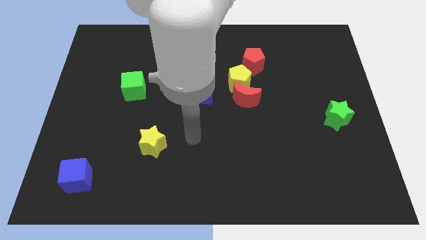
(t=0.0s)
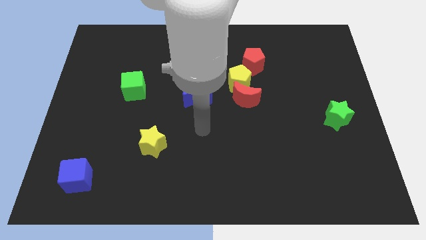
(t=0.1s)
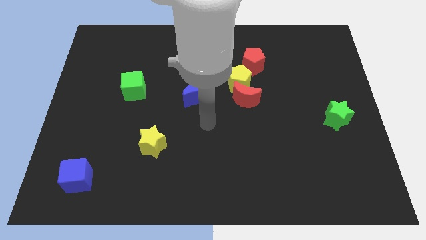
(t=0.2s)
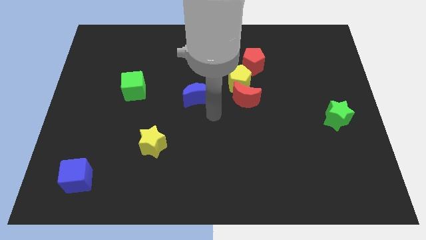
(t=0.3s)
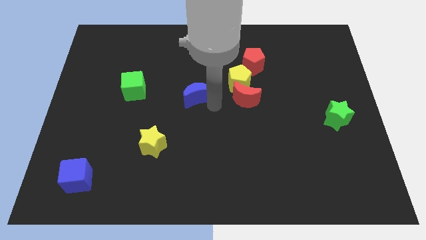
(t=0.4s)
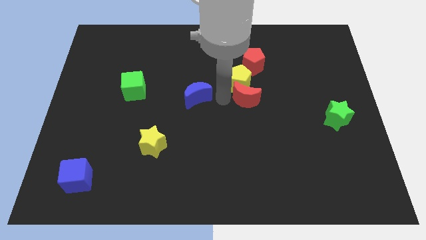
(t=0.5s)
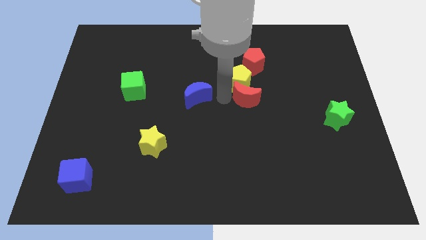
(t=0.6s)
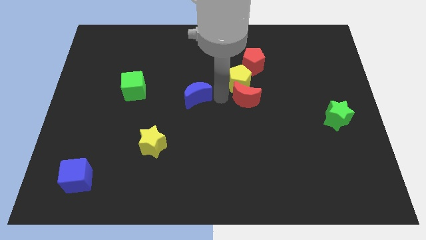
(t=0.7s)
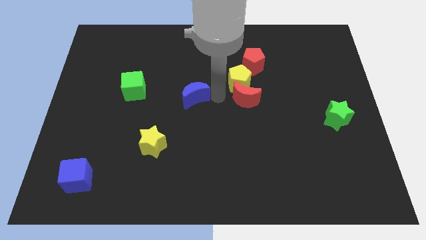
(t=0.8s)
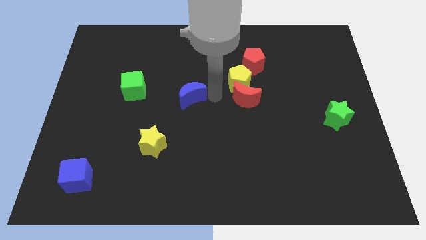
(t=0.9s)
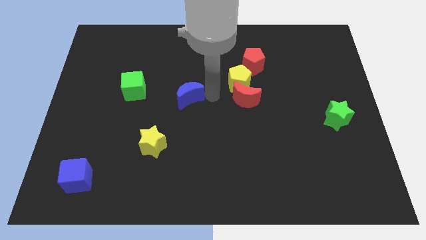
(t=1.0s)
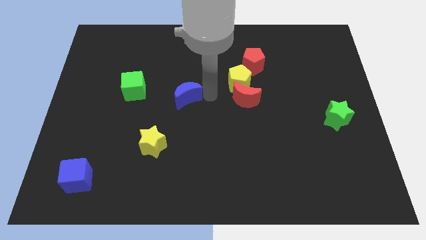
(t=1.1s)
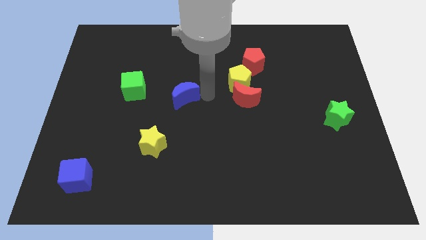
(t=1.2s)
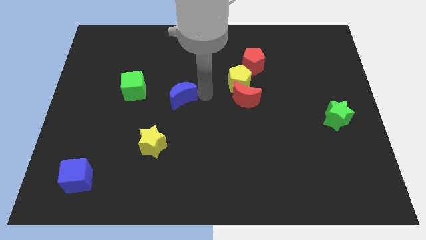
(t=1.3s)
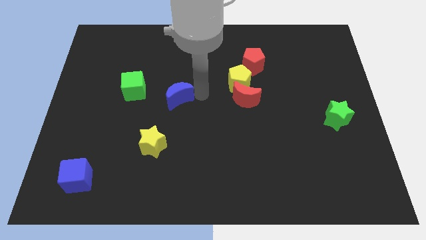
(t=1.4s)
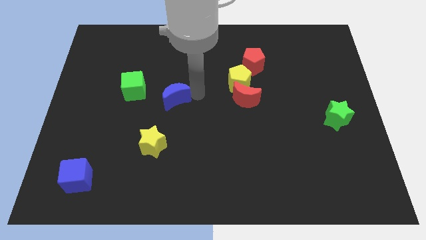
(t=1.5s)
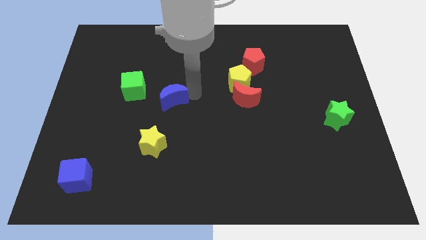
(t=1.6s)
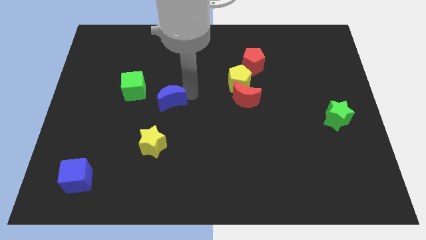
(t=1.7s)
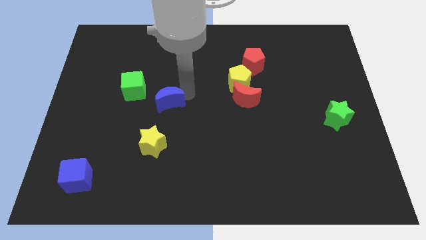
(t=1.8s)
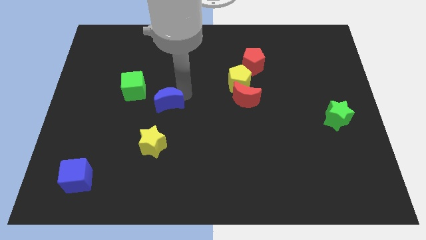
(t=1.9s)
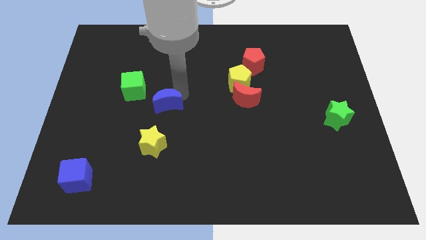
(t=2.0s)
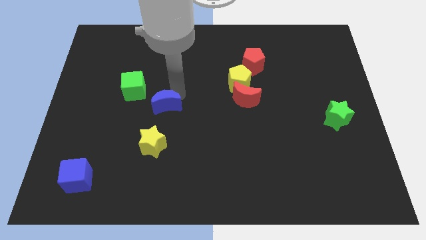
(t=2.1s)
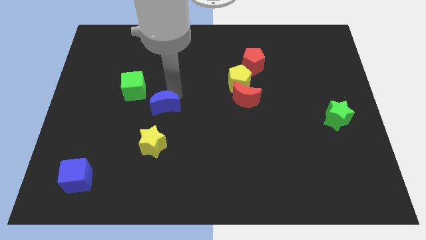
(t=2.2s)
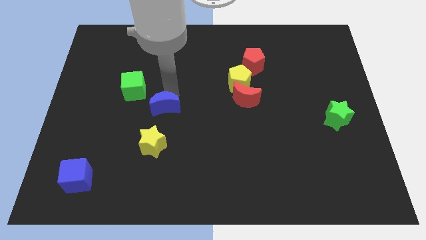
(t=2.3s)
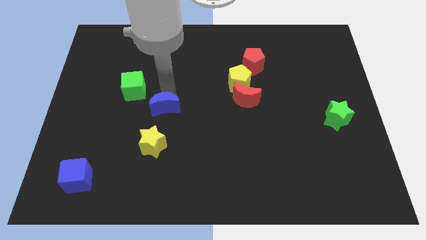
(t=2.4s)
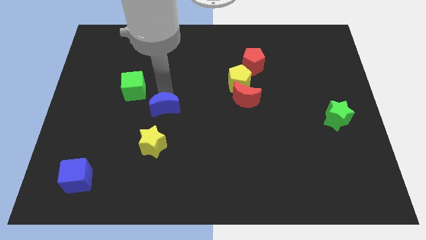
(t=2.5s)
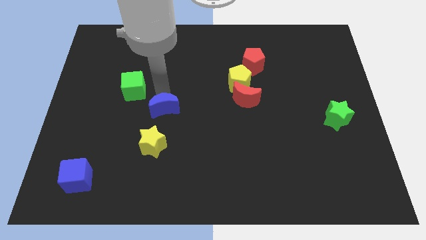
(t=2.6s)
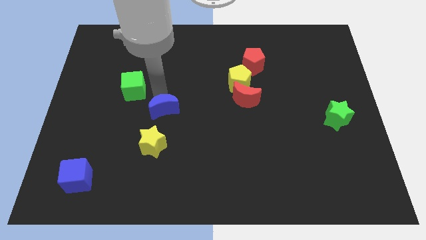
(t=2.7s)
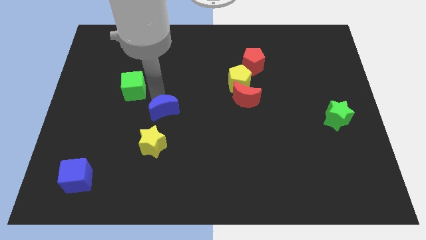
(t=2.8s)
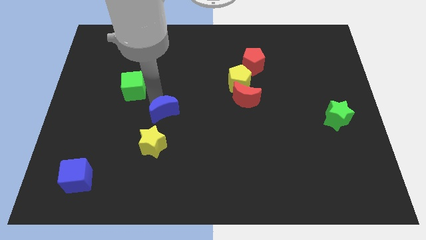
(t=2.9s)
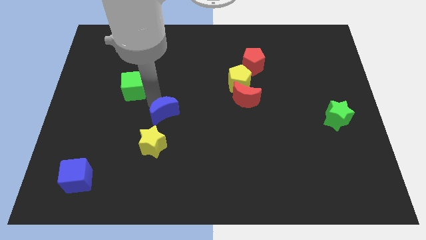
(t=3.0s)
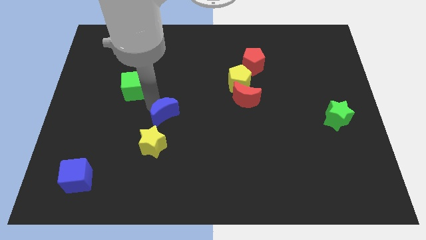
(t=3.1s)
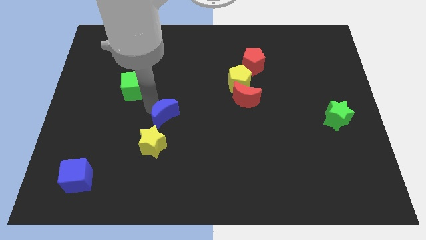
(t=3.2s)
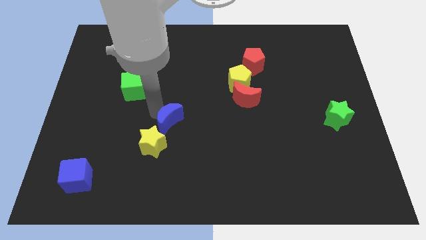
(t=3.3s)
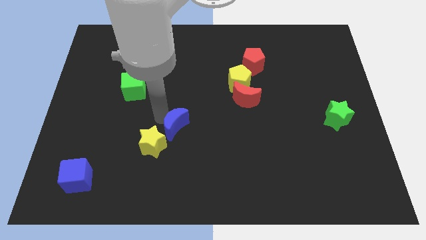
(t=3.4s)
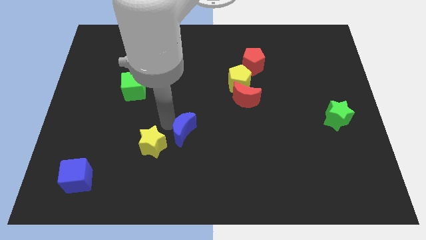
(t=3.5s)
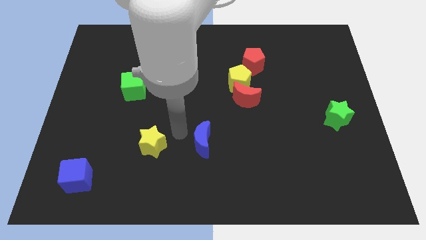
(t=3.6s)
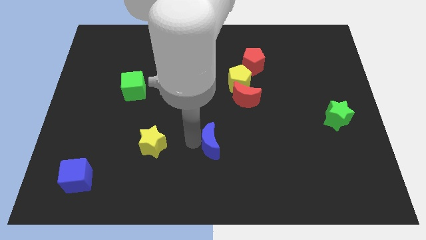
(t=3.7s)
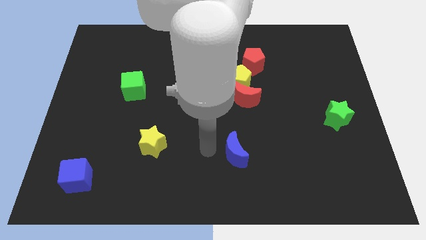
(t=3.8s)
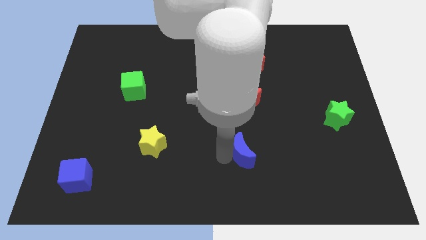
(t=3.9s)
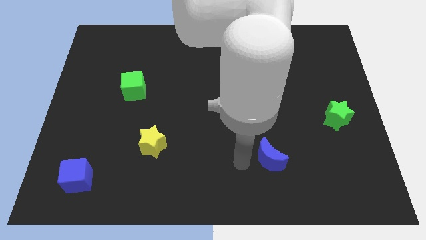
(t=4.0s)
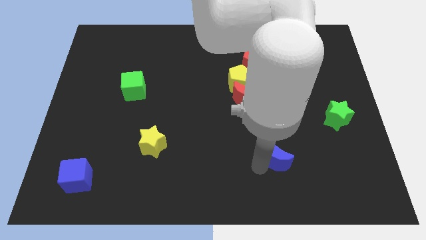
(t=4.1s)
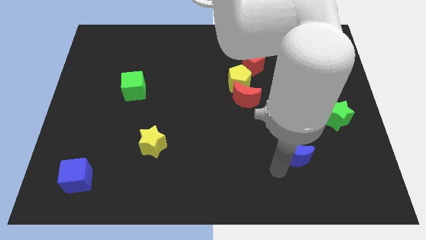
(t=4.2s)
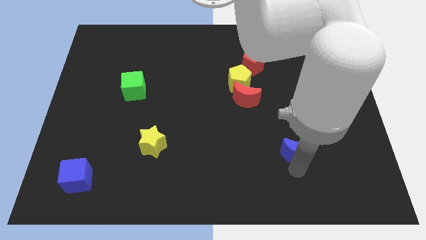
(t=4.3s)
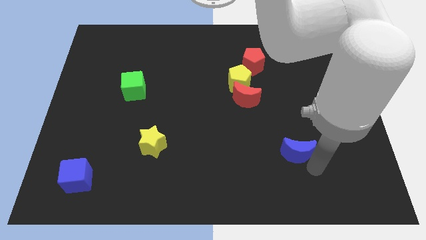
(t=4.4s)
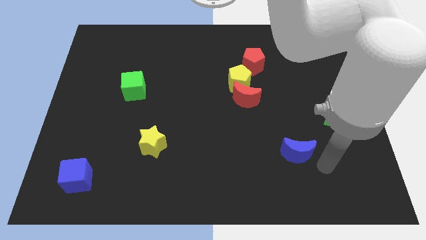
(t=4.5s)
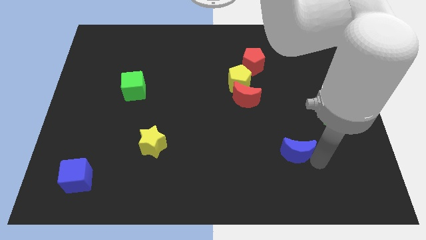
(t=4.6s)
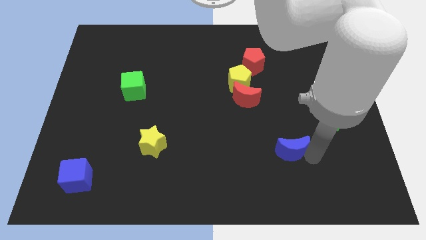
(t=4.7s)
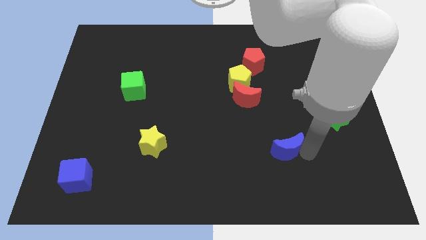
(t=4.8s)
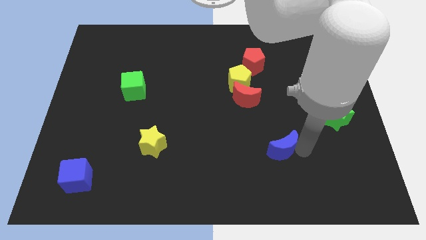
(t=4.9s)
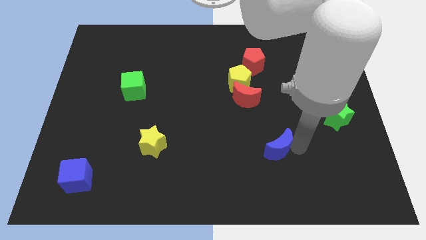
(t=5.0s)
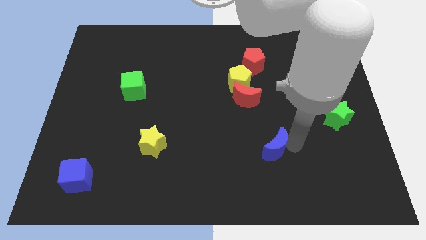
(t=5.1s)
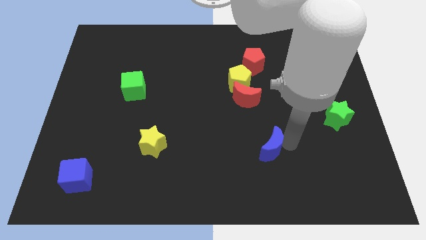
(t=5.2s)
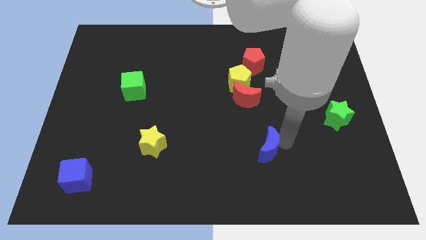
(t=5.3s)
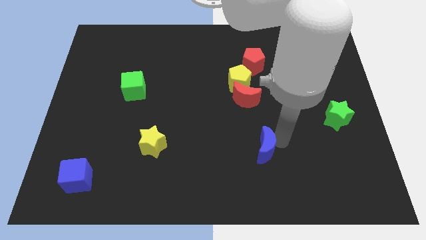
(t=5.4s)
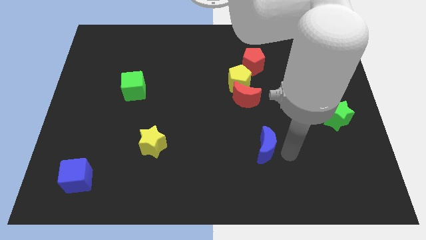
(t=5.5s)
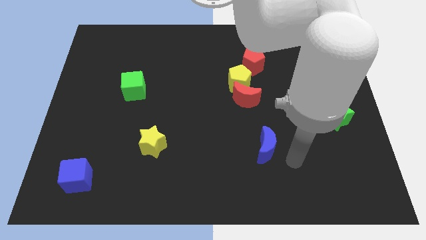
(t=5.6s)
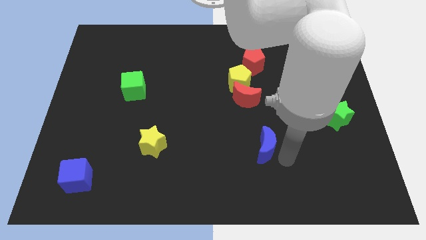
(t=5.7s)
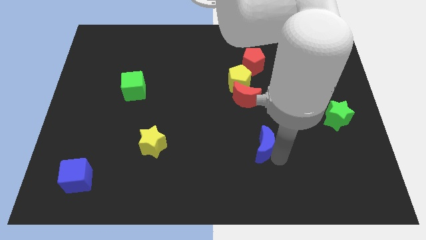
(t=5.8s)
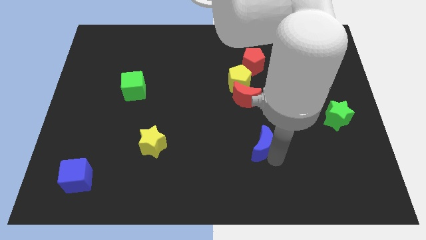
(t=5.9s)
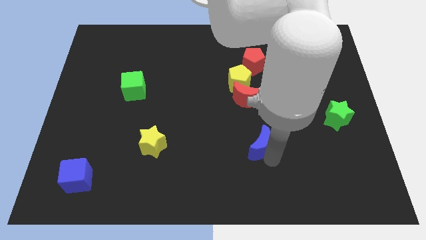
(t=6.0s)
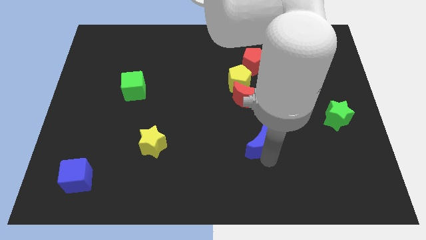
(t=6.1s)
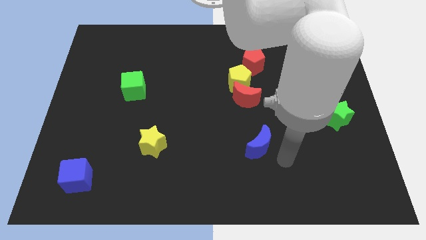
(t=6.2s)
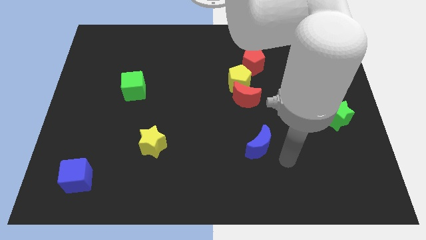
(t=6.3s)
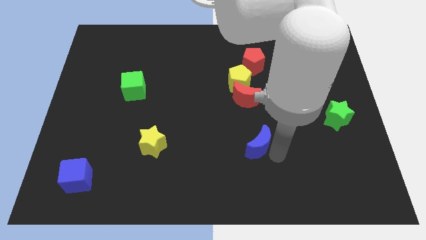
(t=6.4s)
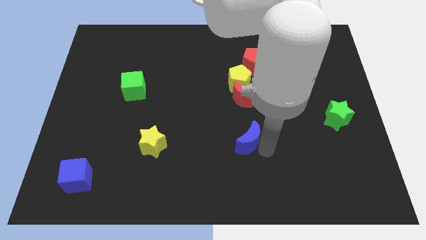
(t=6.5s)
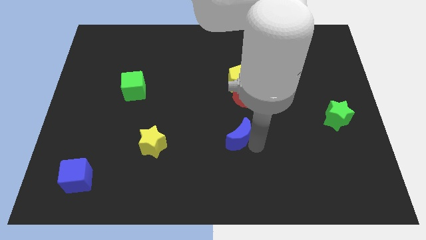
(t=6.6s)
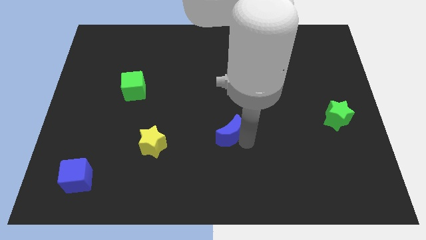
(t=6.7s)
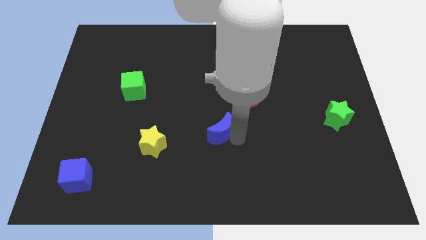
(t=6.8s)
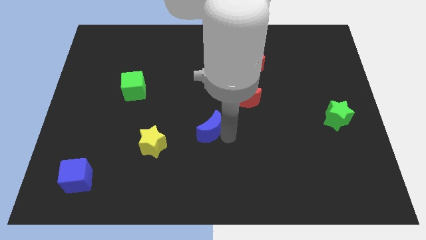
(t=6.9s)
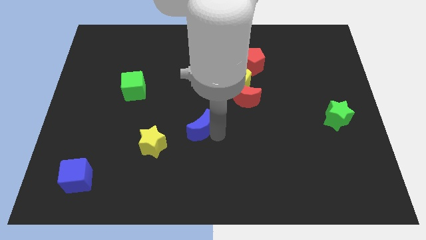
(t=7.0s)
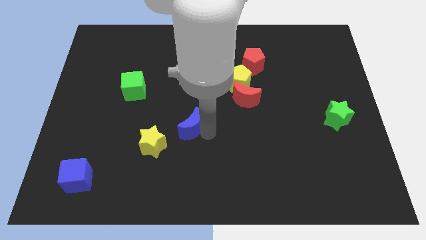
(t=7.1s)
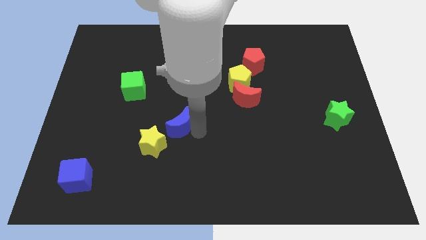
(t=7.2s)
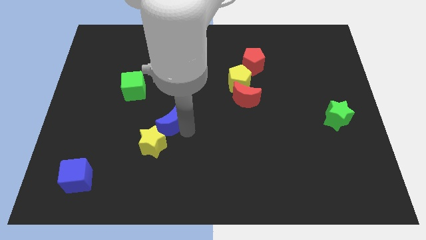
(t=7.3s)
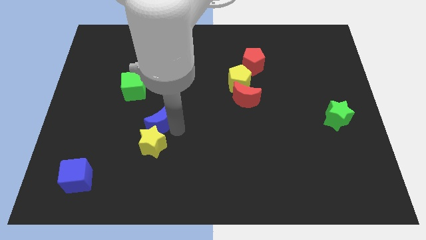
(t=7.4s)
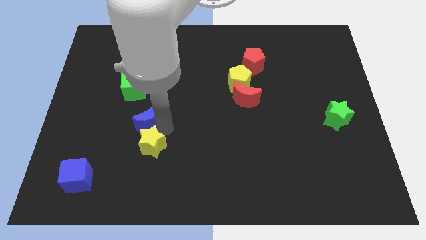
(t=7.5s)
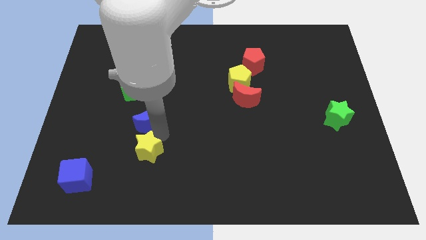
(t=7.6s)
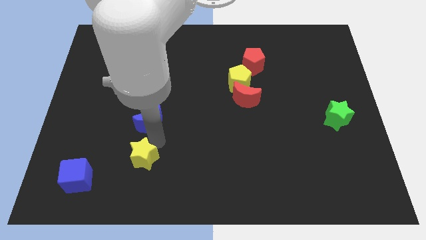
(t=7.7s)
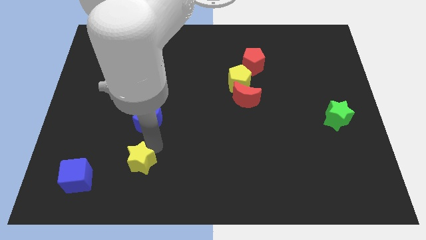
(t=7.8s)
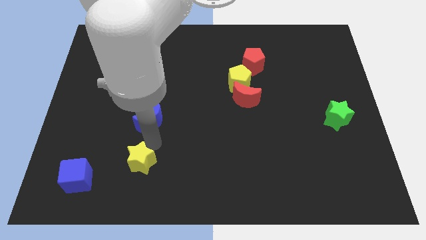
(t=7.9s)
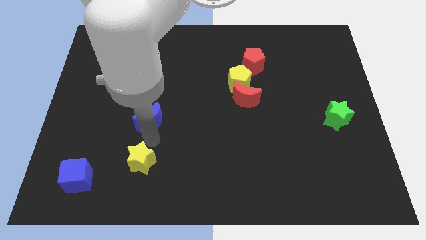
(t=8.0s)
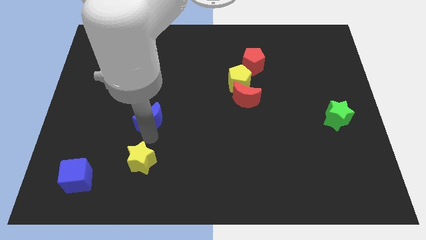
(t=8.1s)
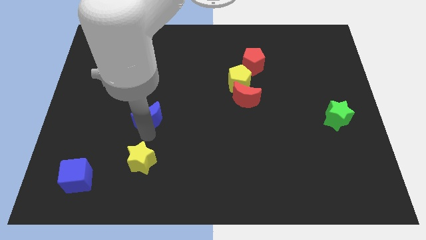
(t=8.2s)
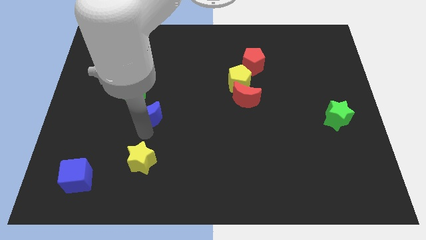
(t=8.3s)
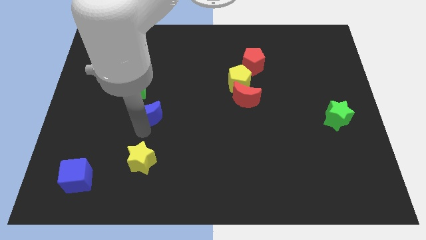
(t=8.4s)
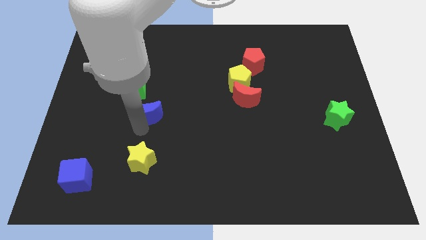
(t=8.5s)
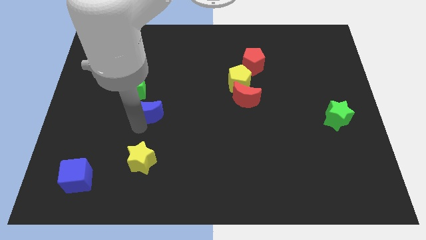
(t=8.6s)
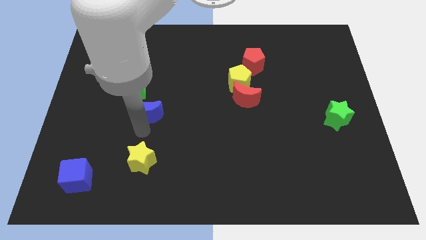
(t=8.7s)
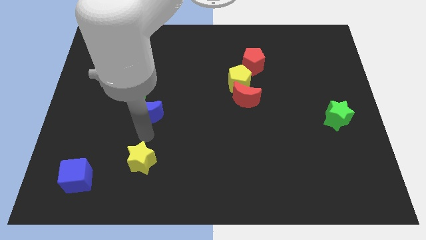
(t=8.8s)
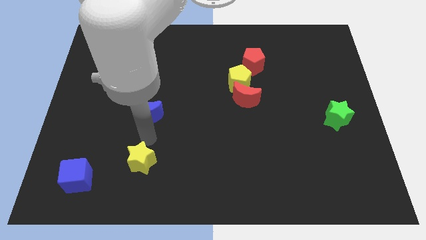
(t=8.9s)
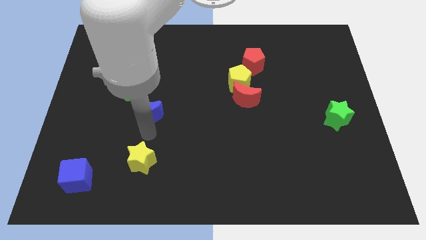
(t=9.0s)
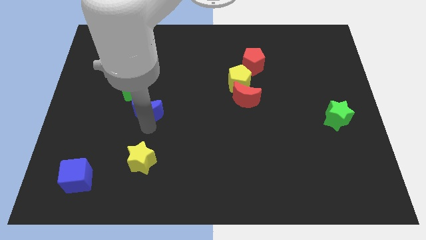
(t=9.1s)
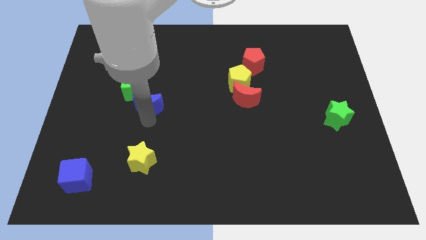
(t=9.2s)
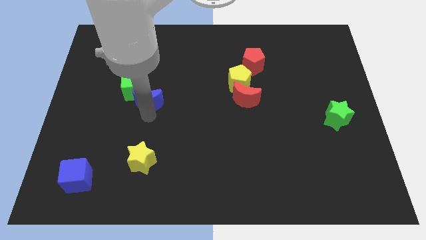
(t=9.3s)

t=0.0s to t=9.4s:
put the blue moon next to the green cube
